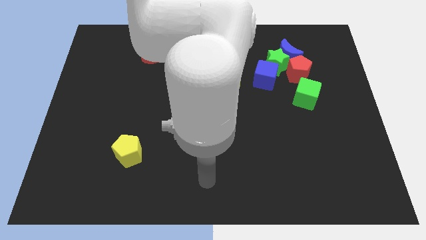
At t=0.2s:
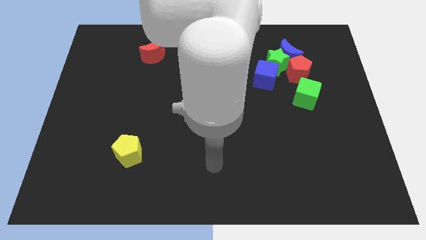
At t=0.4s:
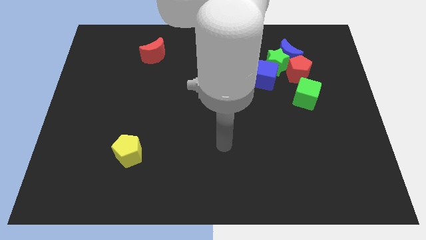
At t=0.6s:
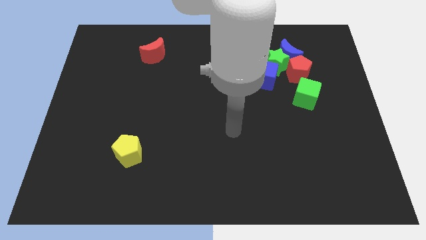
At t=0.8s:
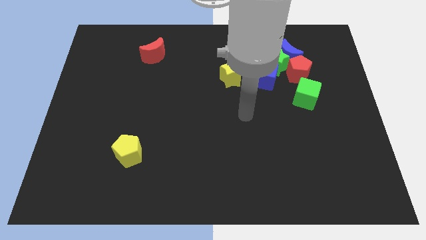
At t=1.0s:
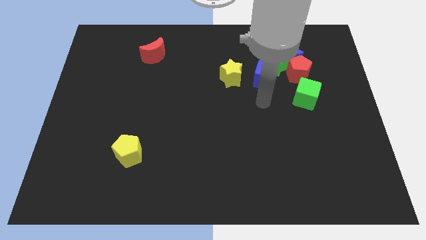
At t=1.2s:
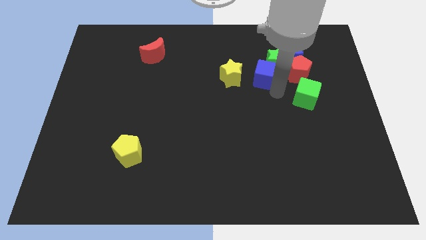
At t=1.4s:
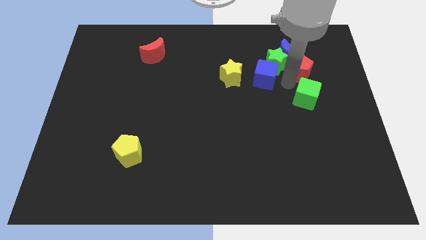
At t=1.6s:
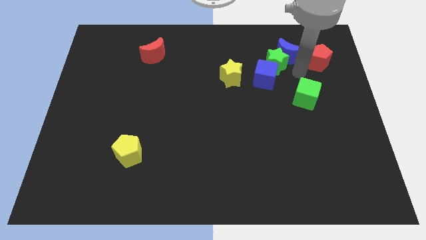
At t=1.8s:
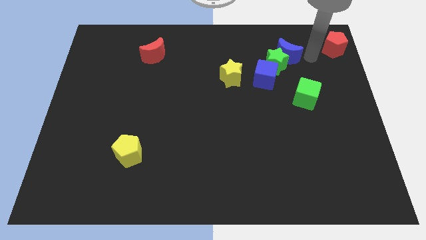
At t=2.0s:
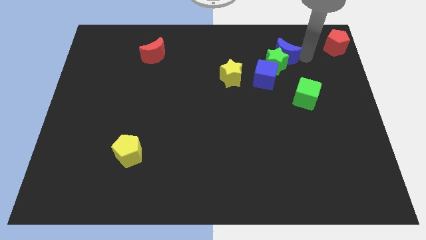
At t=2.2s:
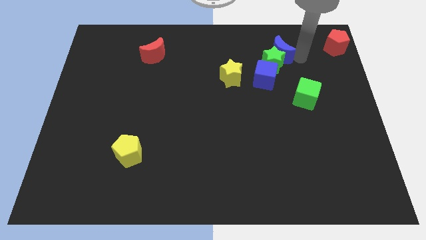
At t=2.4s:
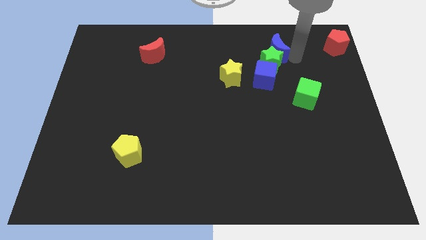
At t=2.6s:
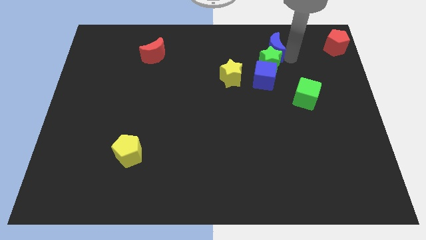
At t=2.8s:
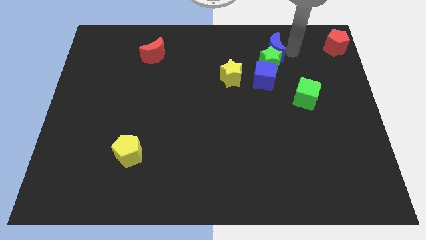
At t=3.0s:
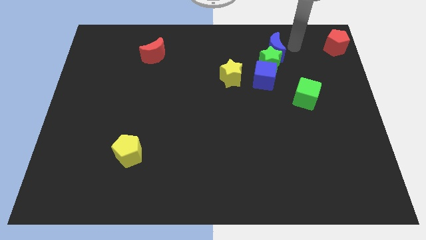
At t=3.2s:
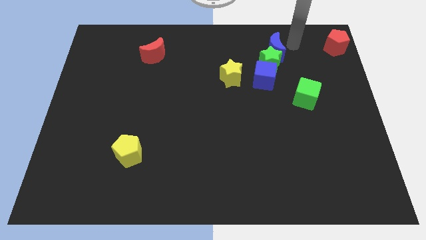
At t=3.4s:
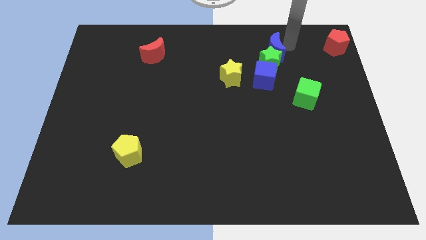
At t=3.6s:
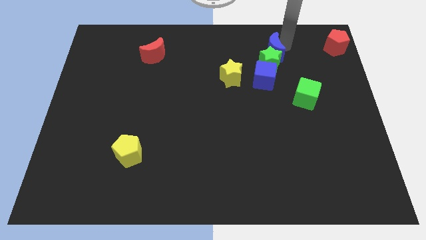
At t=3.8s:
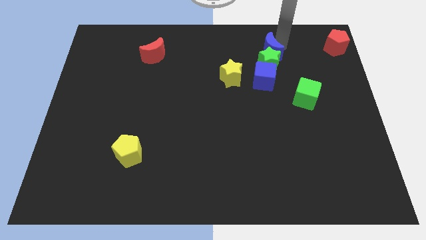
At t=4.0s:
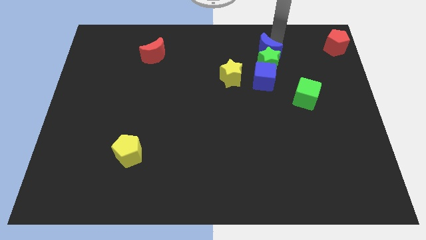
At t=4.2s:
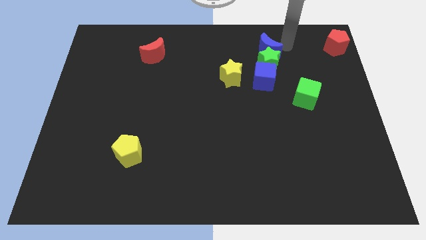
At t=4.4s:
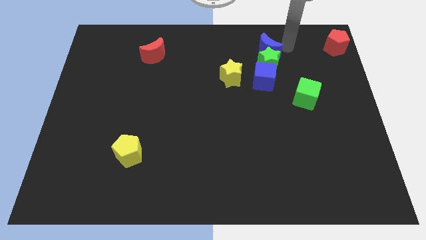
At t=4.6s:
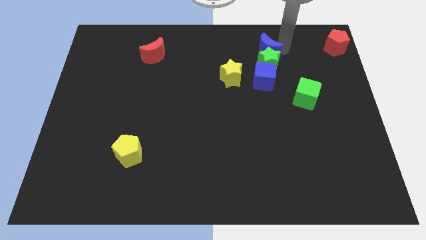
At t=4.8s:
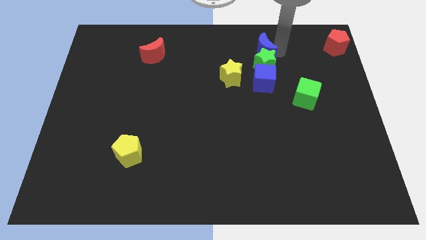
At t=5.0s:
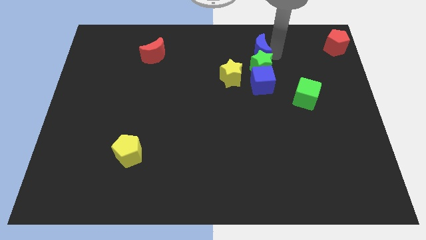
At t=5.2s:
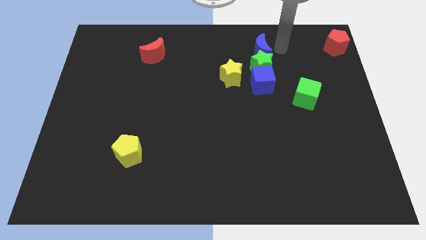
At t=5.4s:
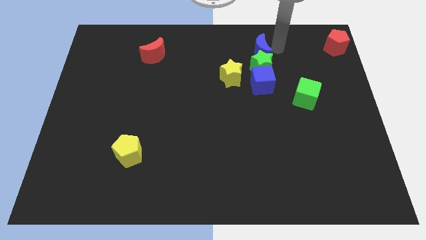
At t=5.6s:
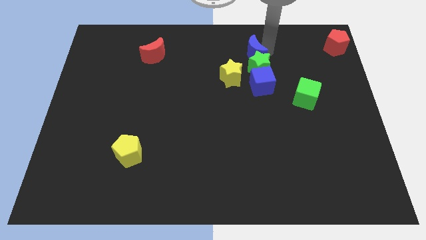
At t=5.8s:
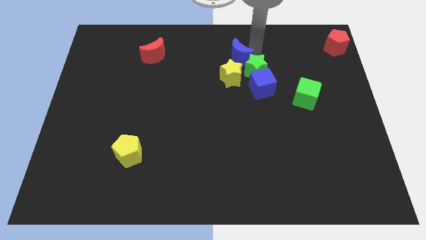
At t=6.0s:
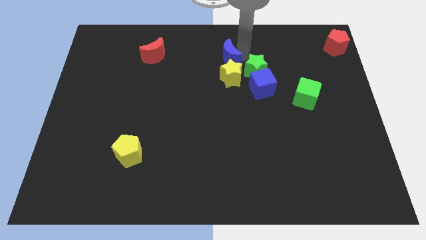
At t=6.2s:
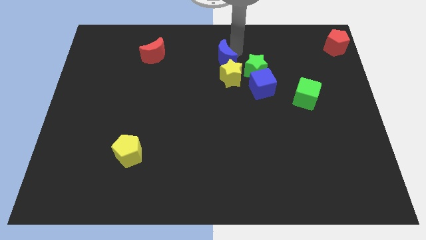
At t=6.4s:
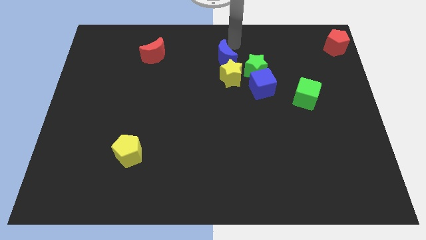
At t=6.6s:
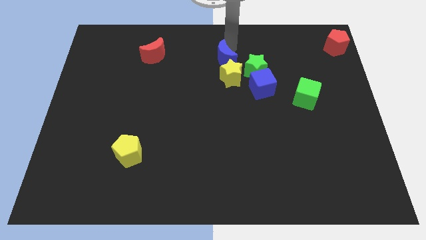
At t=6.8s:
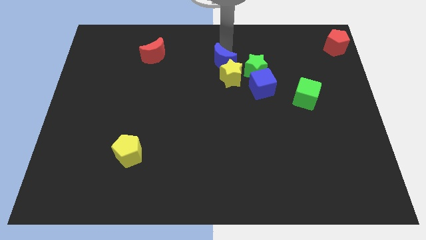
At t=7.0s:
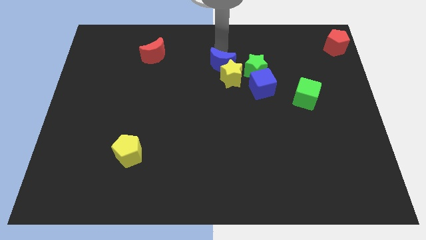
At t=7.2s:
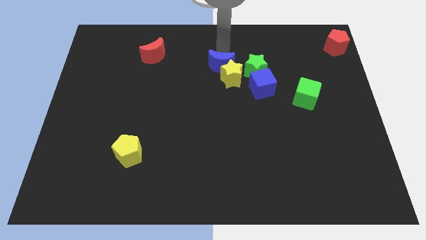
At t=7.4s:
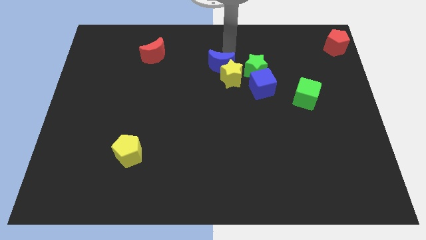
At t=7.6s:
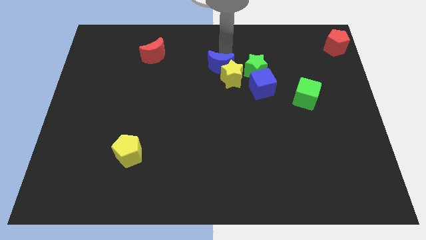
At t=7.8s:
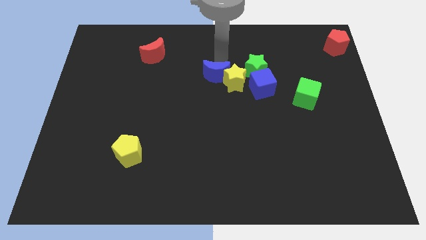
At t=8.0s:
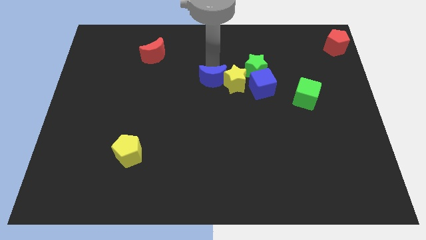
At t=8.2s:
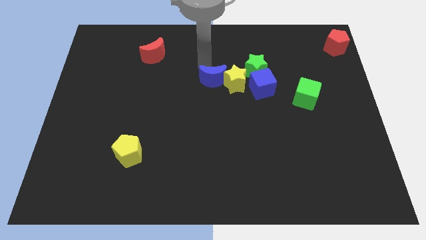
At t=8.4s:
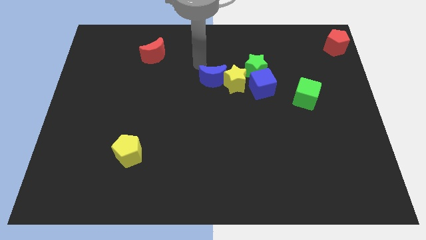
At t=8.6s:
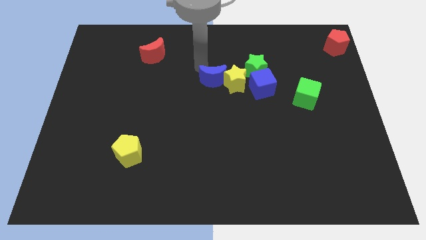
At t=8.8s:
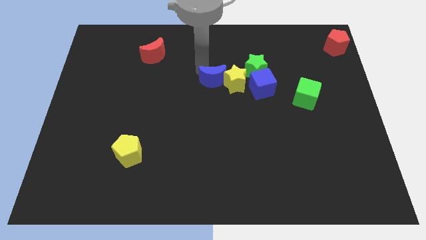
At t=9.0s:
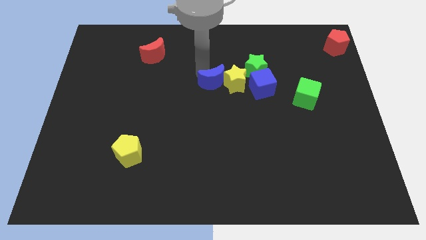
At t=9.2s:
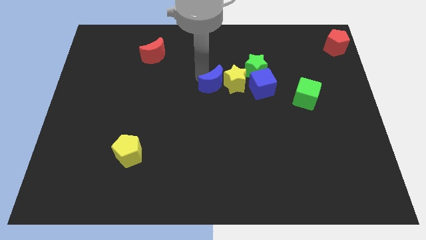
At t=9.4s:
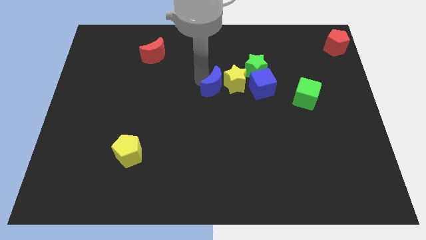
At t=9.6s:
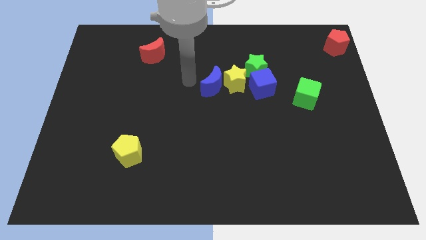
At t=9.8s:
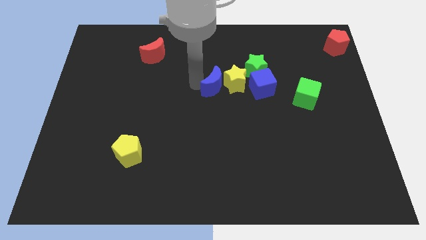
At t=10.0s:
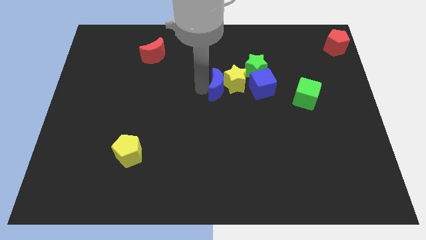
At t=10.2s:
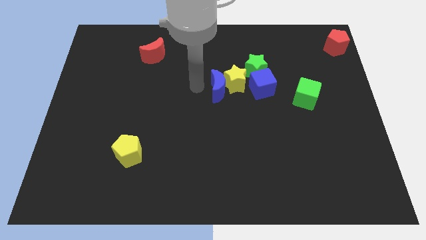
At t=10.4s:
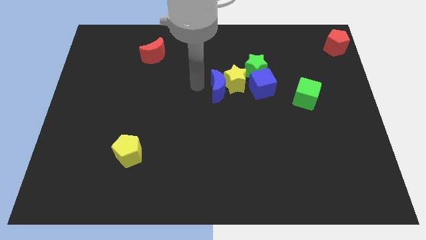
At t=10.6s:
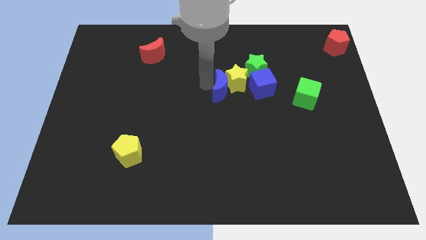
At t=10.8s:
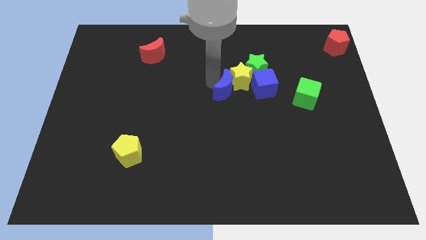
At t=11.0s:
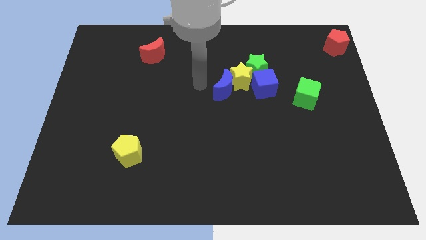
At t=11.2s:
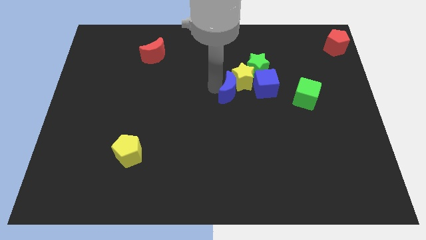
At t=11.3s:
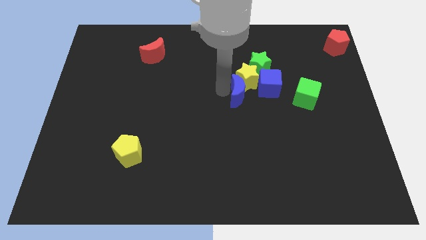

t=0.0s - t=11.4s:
push the blue moon to the left side of the green cube
